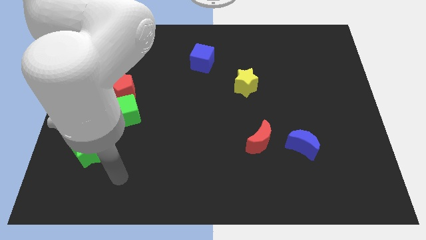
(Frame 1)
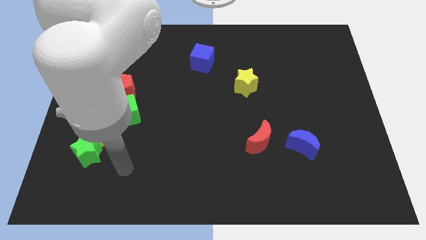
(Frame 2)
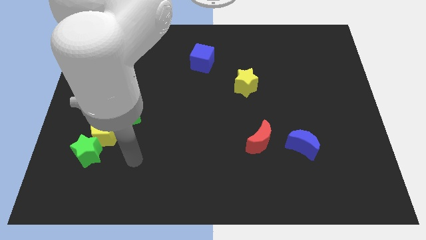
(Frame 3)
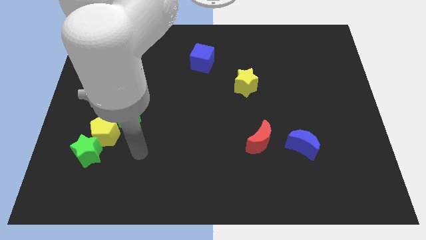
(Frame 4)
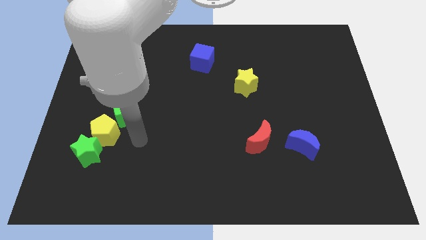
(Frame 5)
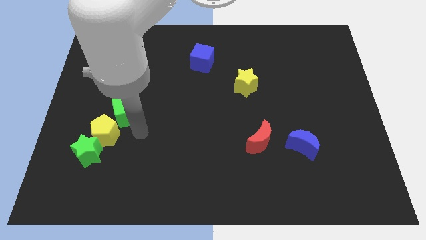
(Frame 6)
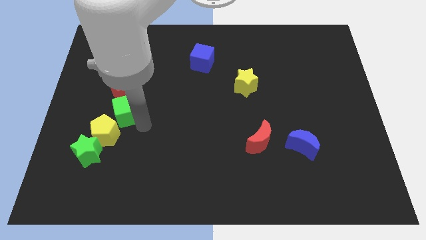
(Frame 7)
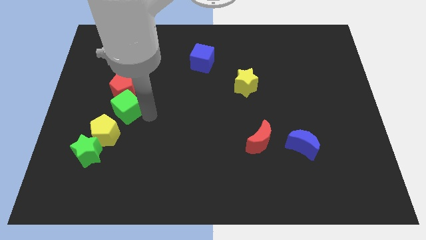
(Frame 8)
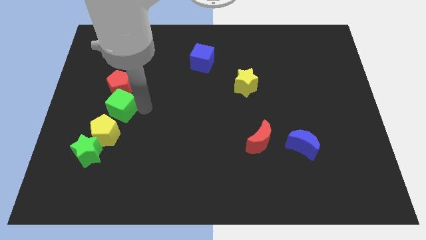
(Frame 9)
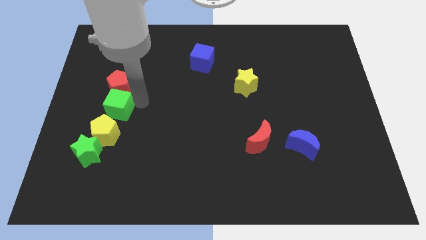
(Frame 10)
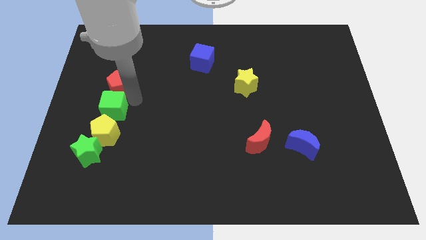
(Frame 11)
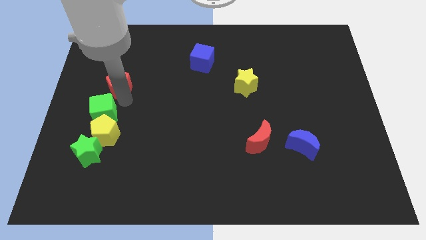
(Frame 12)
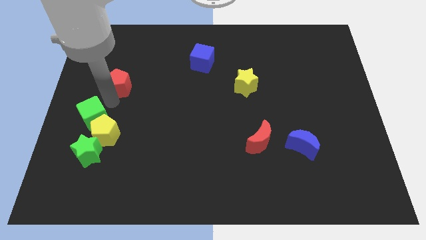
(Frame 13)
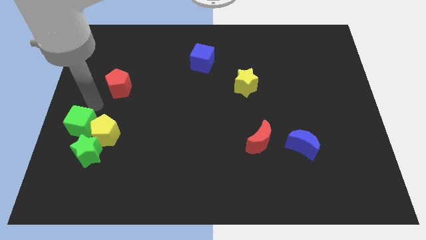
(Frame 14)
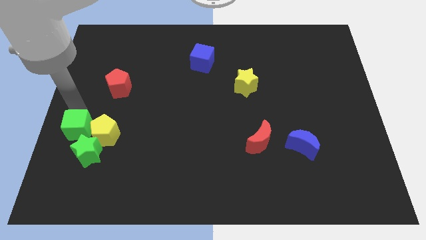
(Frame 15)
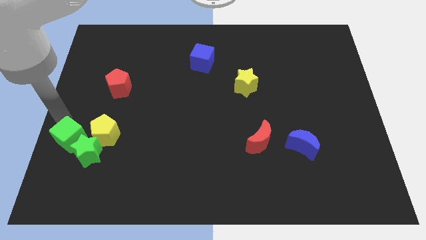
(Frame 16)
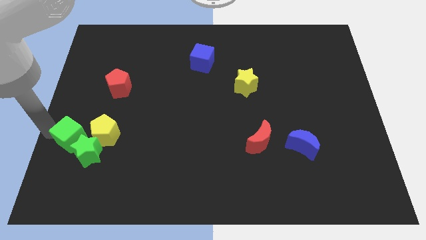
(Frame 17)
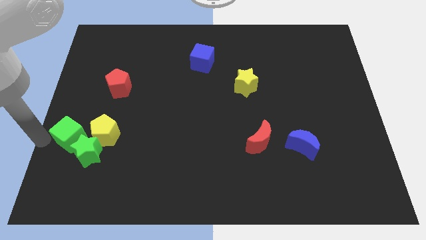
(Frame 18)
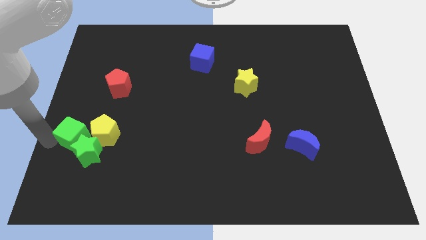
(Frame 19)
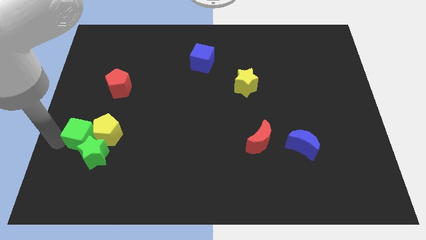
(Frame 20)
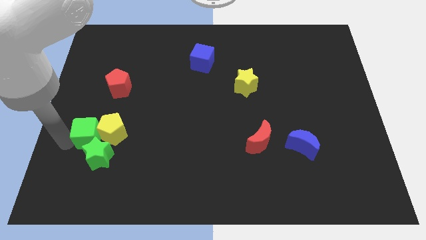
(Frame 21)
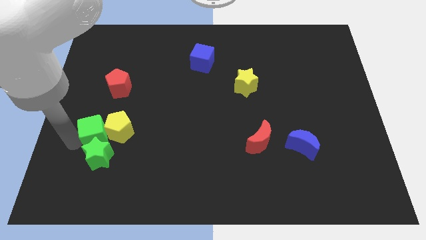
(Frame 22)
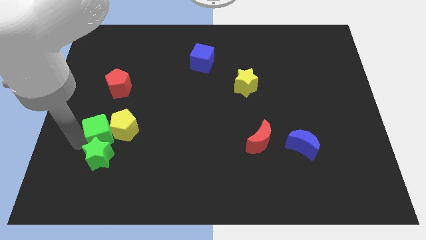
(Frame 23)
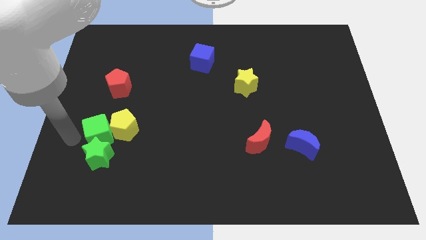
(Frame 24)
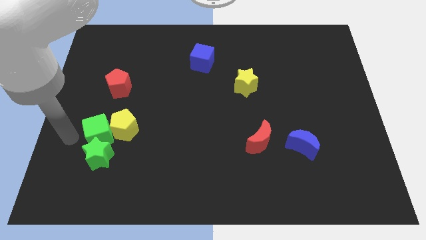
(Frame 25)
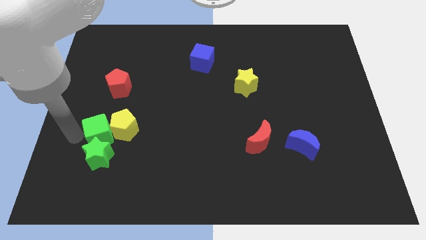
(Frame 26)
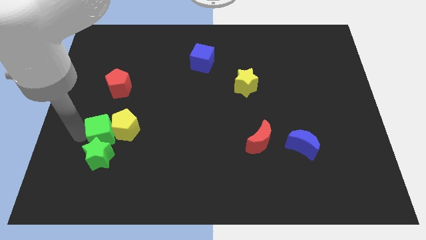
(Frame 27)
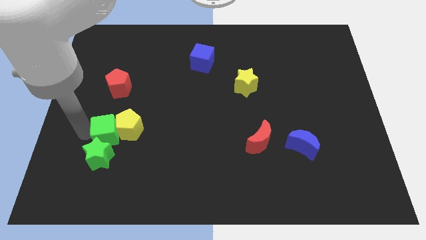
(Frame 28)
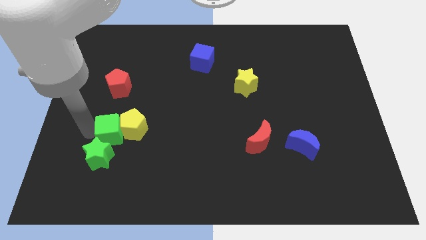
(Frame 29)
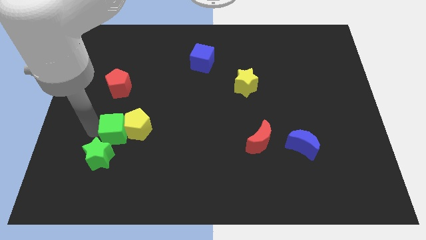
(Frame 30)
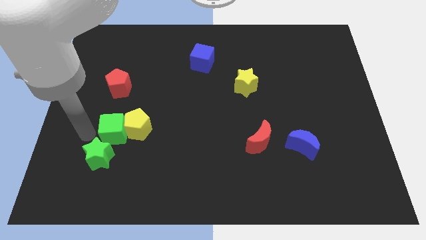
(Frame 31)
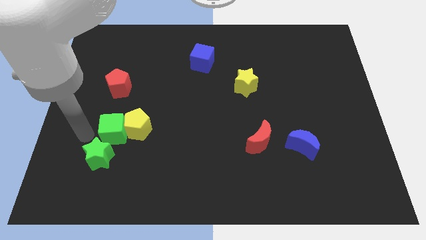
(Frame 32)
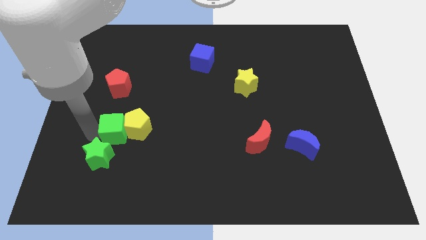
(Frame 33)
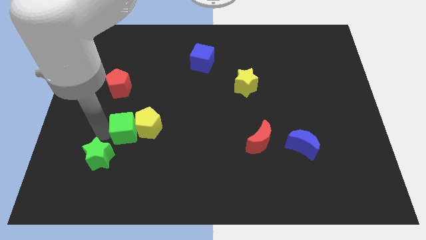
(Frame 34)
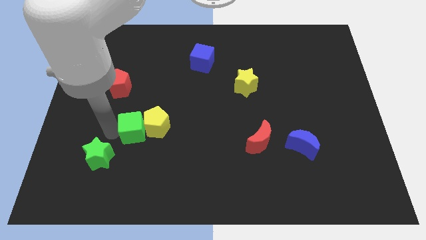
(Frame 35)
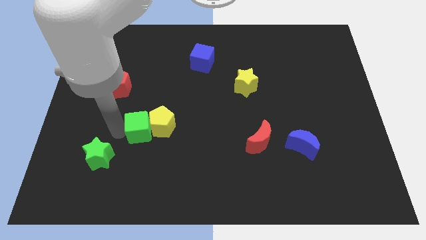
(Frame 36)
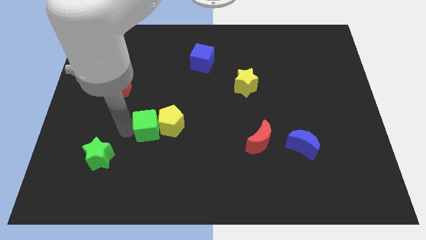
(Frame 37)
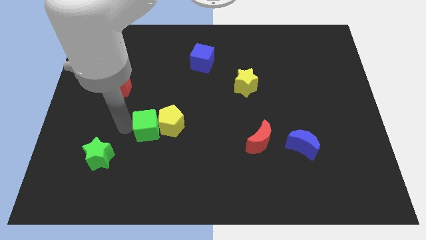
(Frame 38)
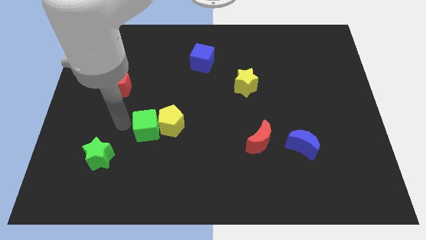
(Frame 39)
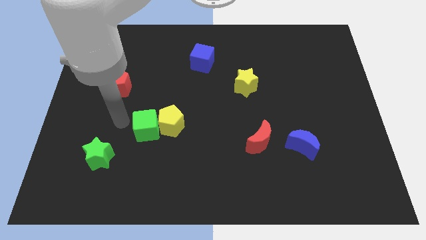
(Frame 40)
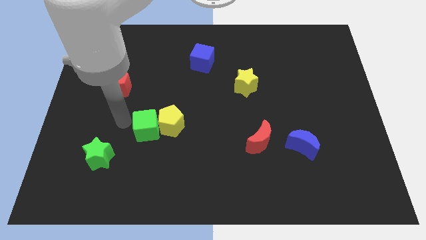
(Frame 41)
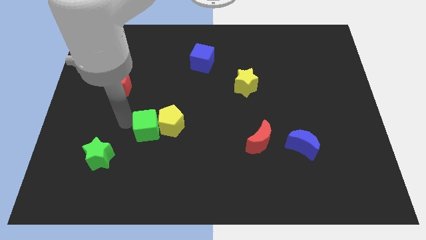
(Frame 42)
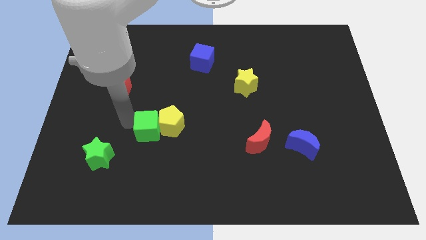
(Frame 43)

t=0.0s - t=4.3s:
push the green cube slightly downwards and to the right diagonally

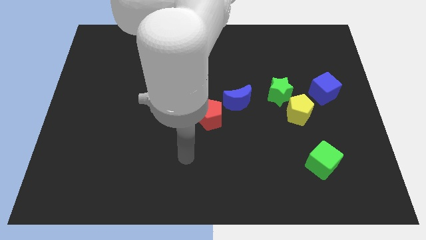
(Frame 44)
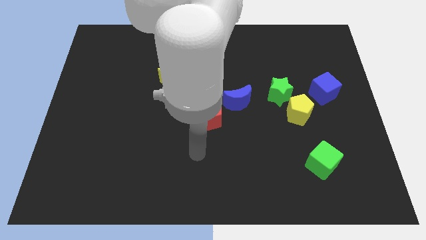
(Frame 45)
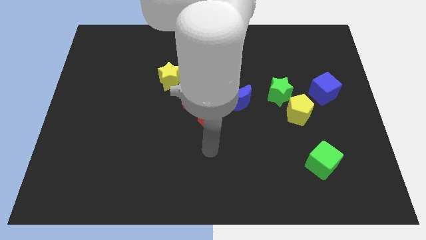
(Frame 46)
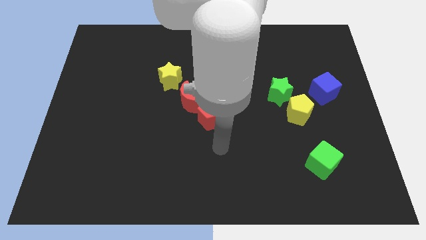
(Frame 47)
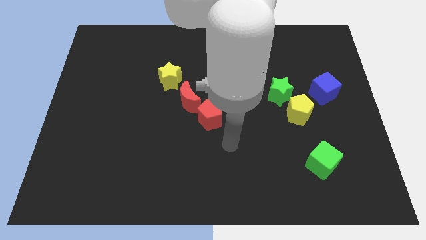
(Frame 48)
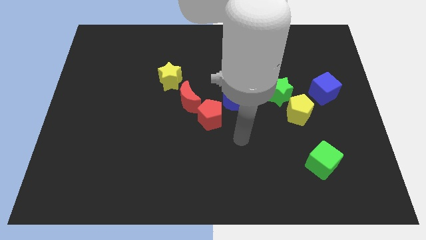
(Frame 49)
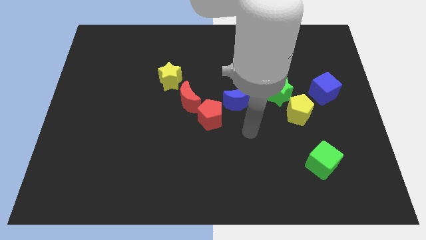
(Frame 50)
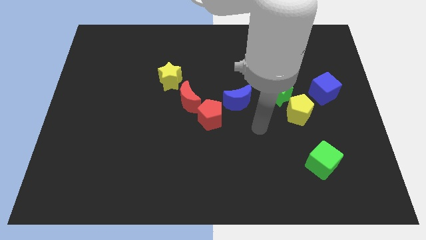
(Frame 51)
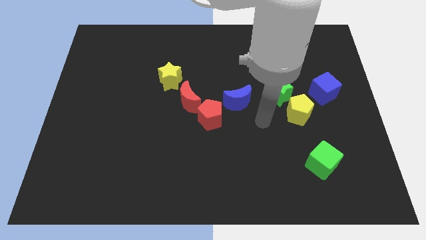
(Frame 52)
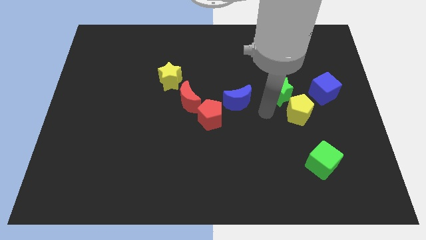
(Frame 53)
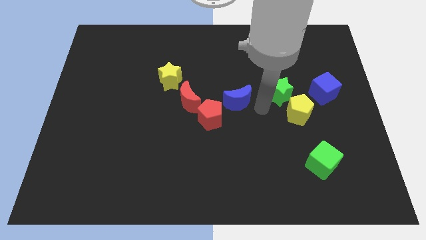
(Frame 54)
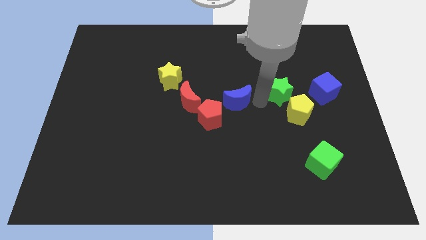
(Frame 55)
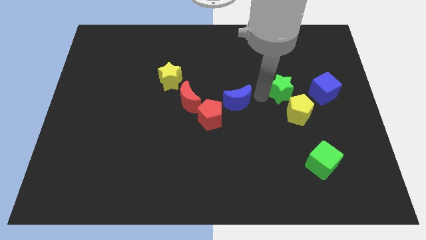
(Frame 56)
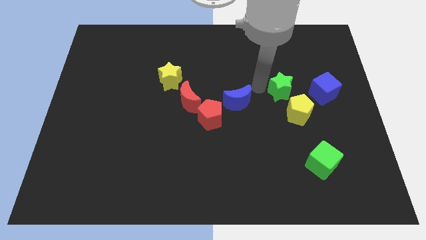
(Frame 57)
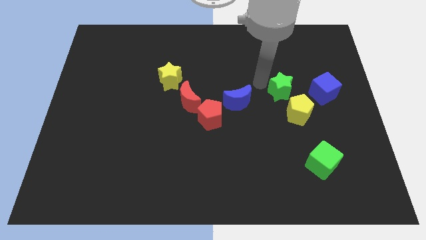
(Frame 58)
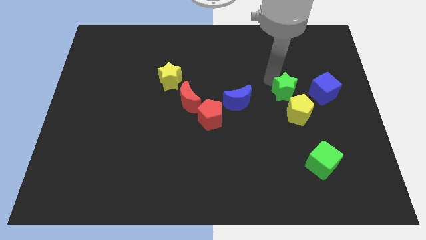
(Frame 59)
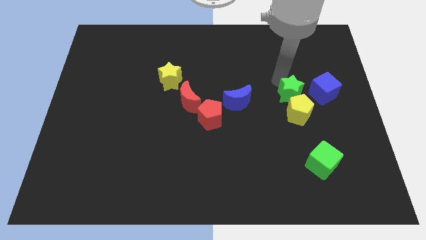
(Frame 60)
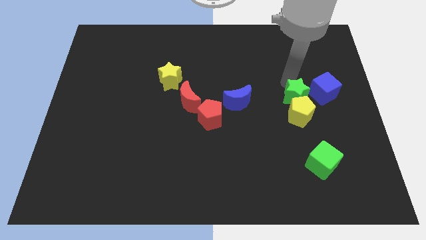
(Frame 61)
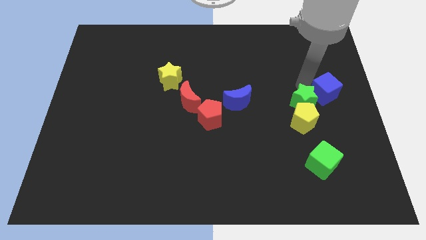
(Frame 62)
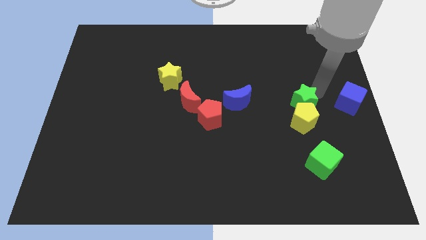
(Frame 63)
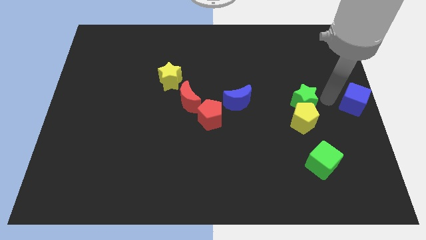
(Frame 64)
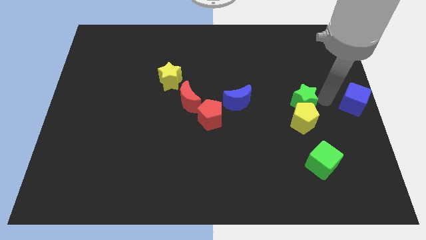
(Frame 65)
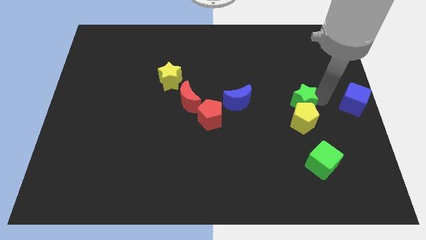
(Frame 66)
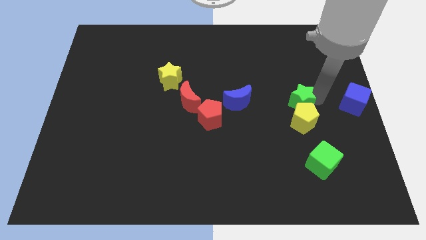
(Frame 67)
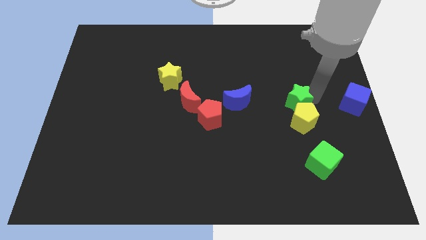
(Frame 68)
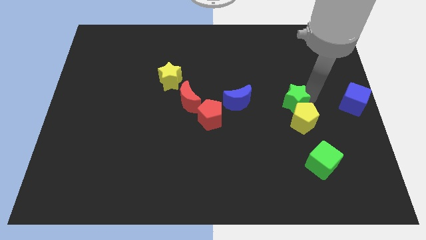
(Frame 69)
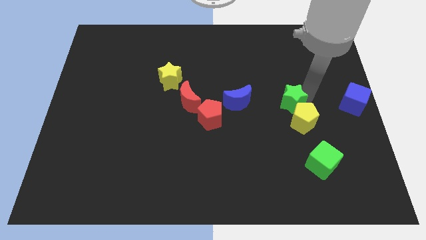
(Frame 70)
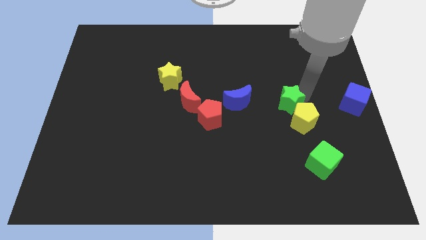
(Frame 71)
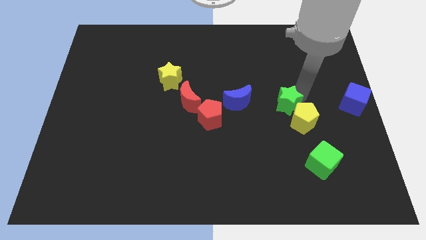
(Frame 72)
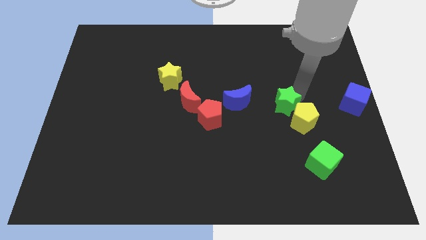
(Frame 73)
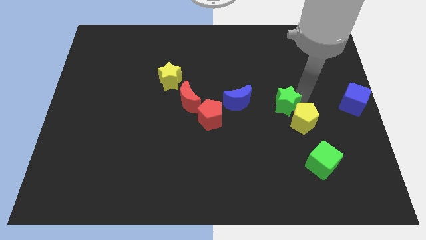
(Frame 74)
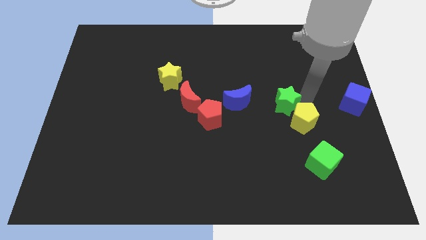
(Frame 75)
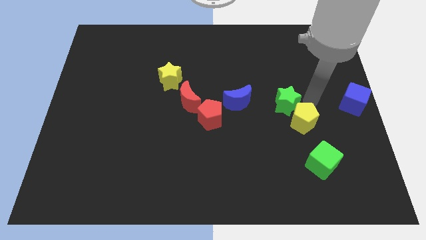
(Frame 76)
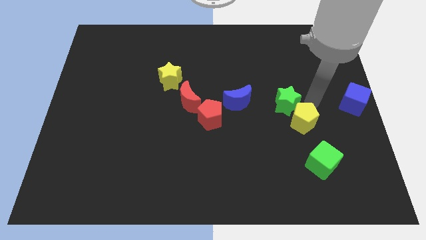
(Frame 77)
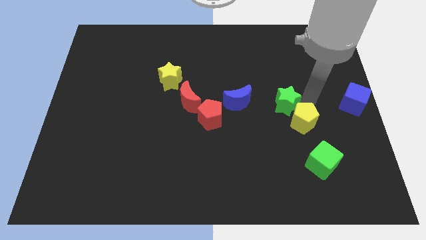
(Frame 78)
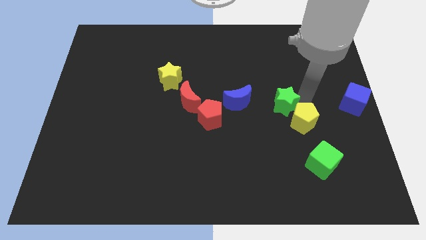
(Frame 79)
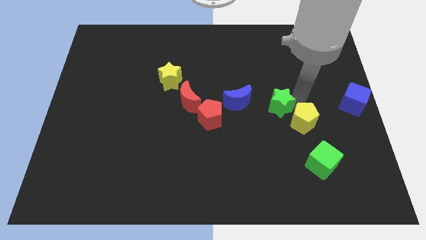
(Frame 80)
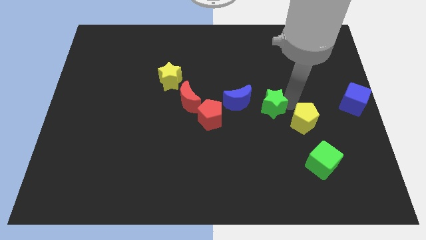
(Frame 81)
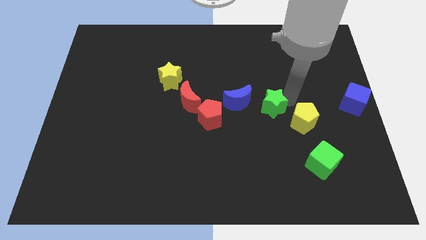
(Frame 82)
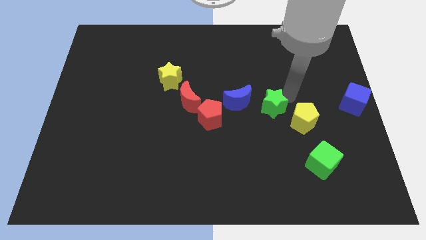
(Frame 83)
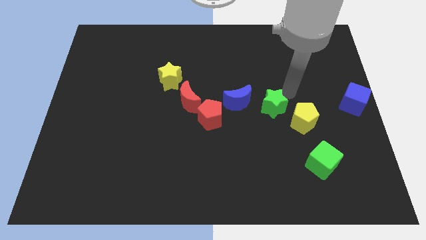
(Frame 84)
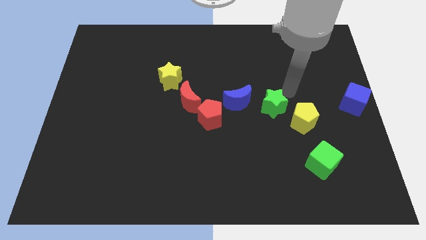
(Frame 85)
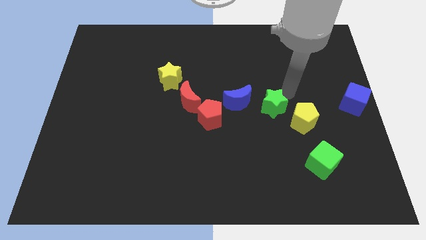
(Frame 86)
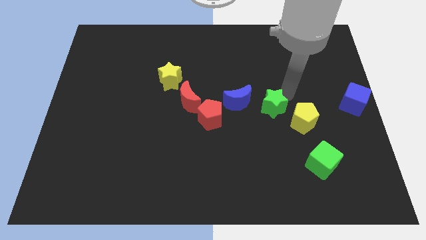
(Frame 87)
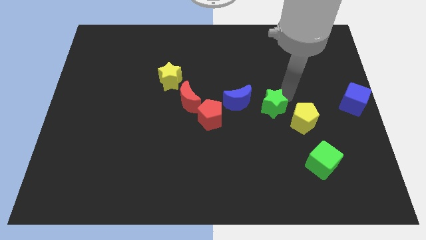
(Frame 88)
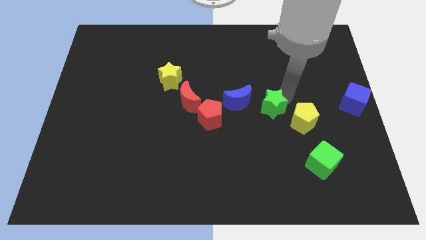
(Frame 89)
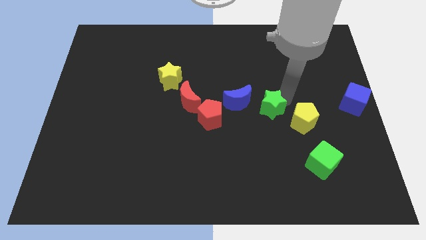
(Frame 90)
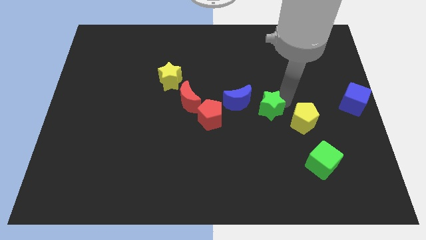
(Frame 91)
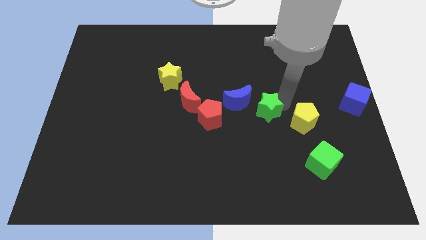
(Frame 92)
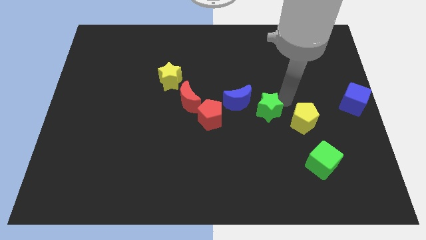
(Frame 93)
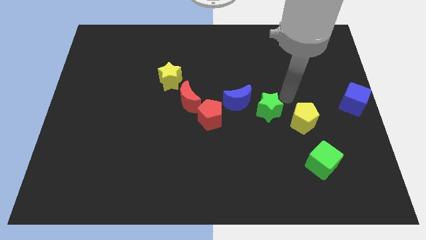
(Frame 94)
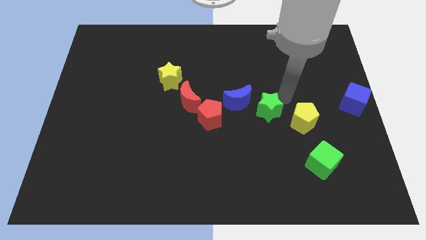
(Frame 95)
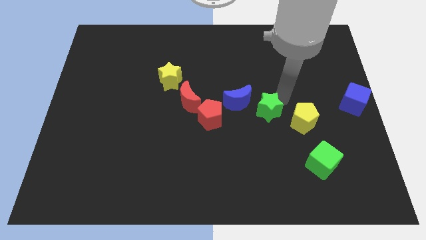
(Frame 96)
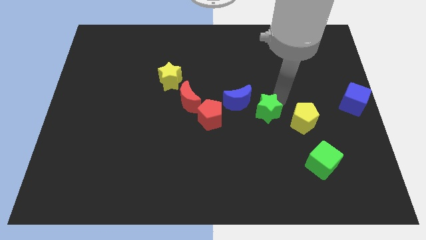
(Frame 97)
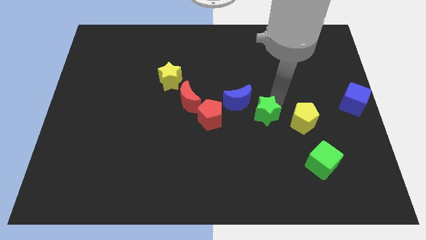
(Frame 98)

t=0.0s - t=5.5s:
slide the green star a little bit downwards and to the left diagonally
